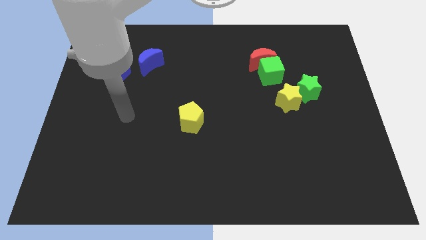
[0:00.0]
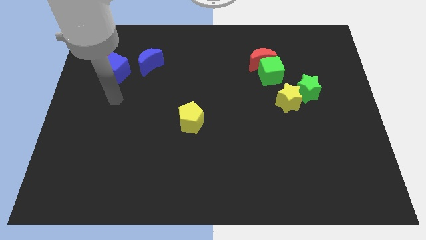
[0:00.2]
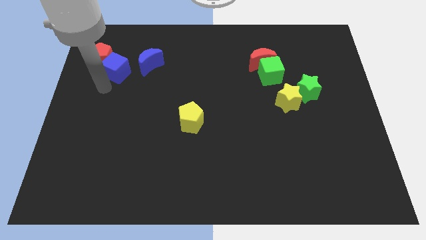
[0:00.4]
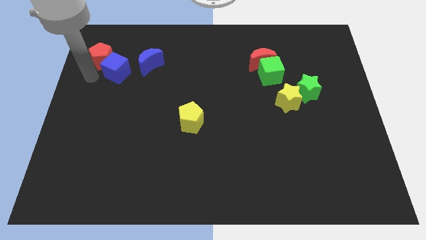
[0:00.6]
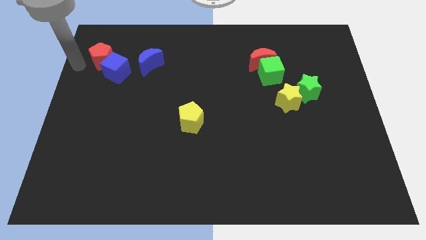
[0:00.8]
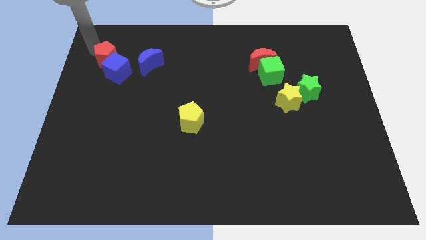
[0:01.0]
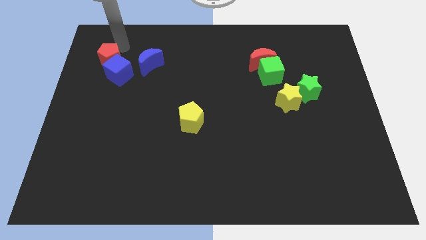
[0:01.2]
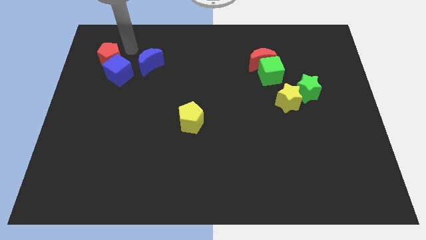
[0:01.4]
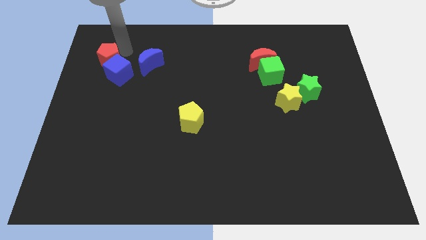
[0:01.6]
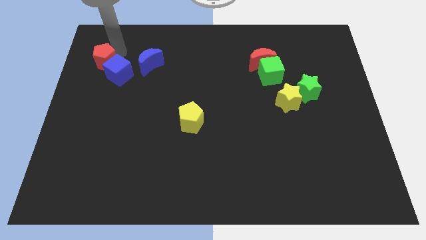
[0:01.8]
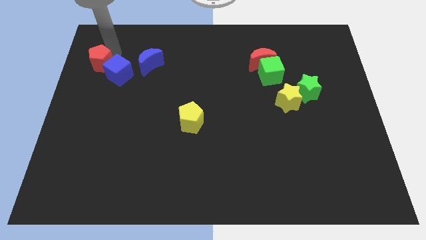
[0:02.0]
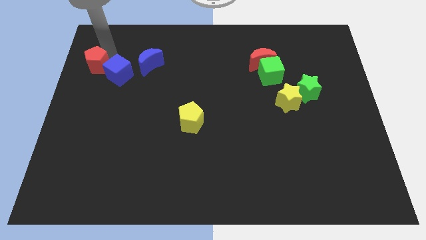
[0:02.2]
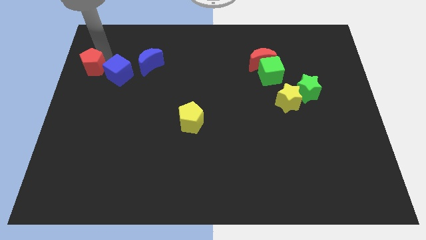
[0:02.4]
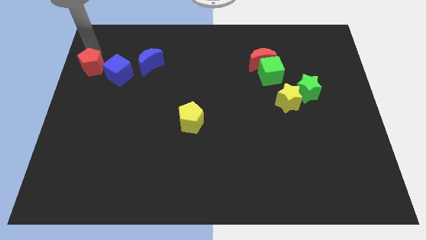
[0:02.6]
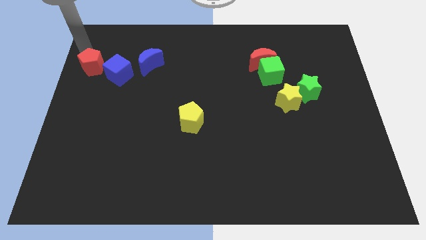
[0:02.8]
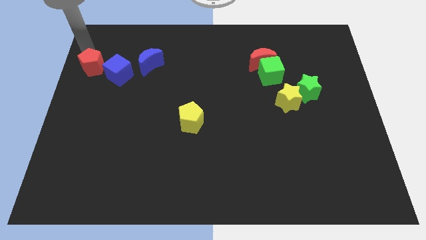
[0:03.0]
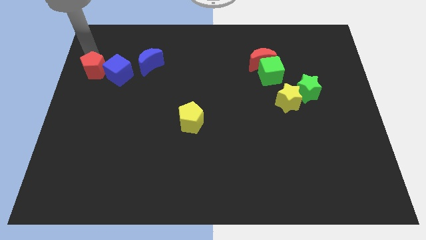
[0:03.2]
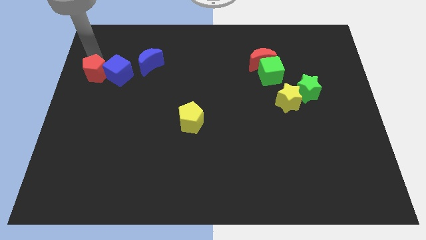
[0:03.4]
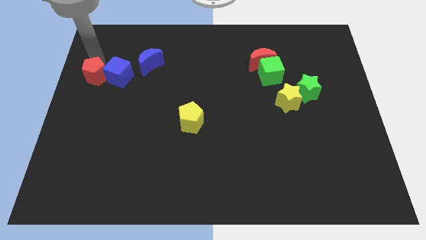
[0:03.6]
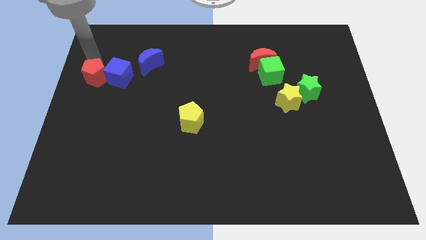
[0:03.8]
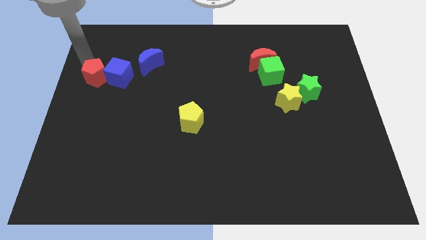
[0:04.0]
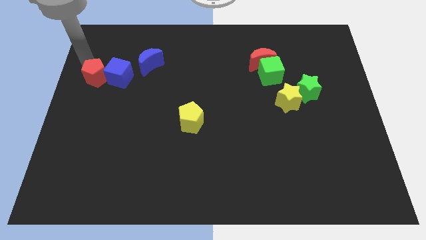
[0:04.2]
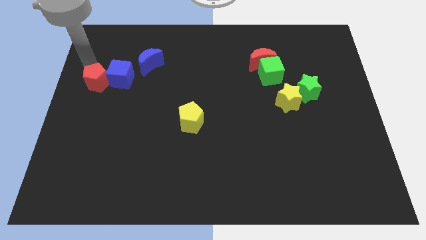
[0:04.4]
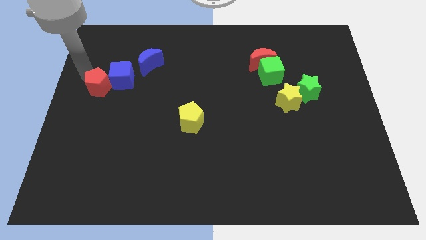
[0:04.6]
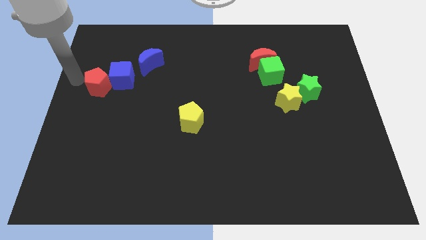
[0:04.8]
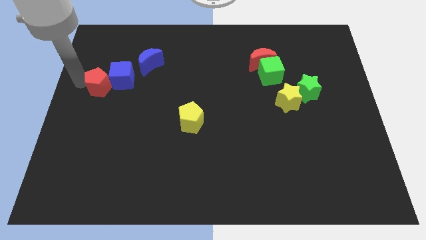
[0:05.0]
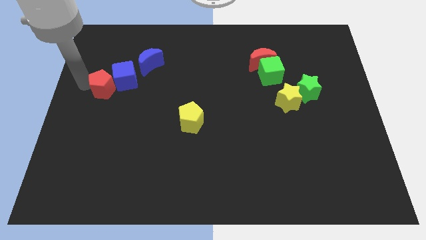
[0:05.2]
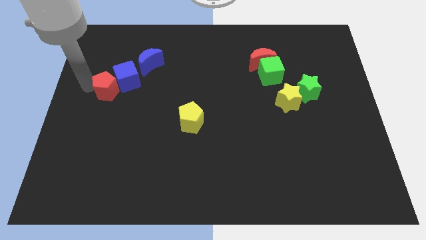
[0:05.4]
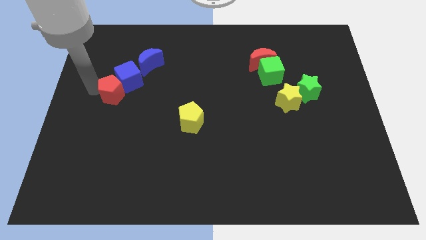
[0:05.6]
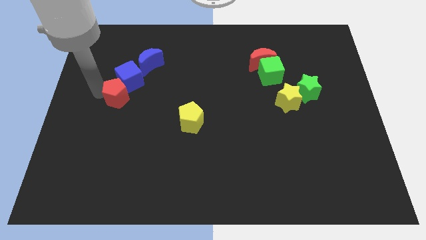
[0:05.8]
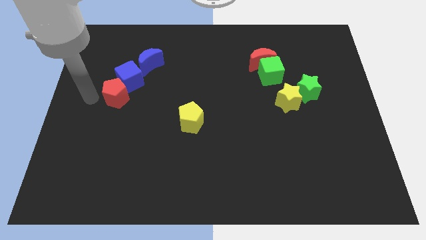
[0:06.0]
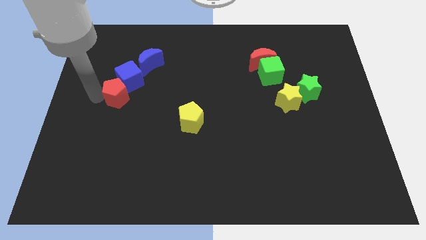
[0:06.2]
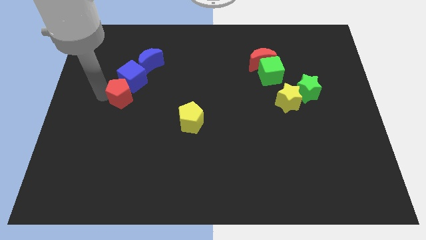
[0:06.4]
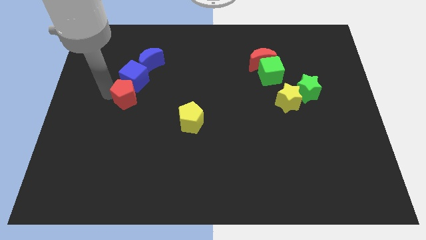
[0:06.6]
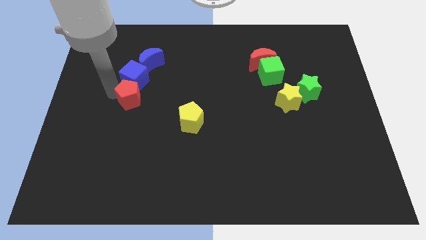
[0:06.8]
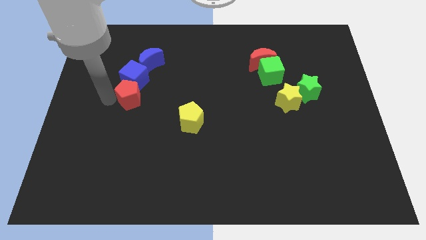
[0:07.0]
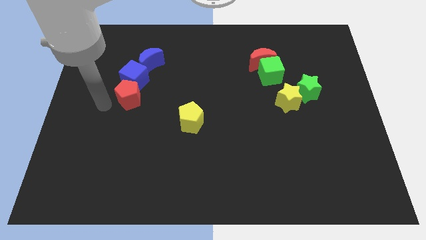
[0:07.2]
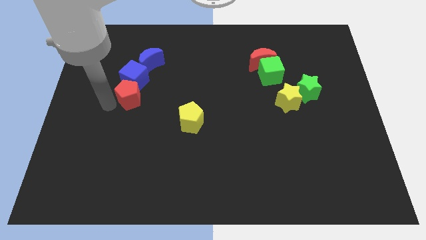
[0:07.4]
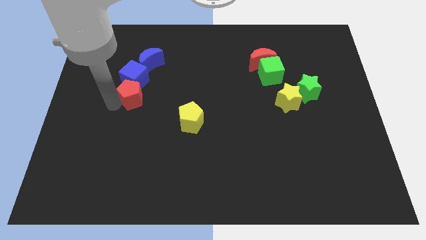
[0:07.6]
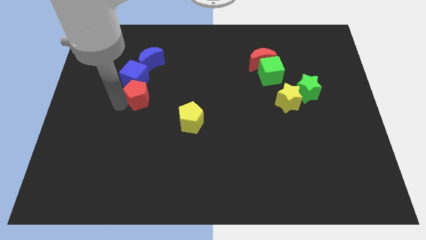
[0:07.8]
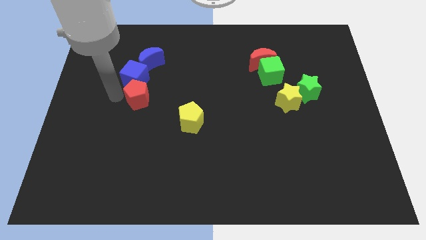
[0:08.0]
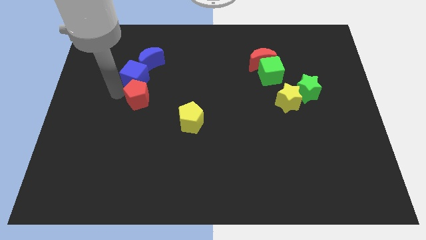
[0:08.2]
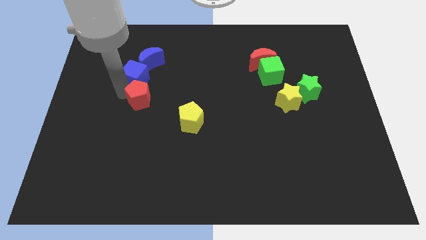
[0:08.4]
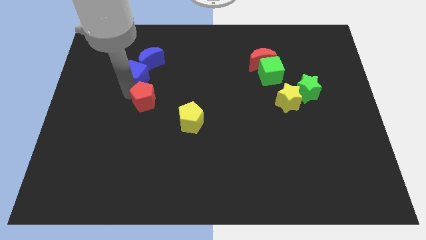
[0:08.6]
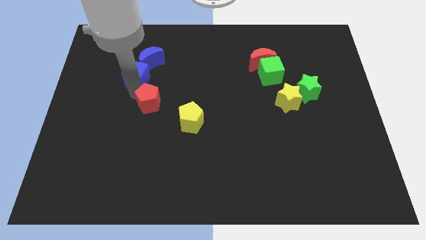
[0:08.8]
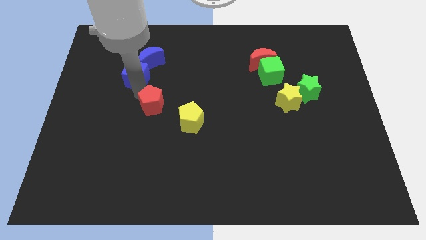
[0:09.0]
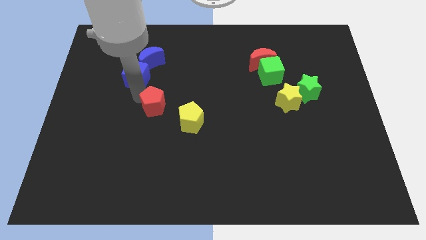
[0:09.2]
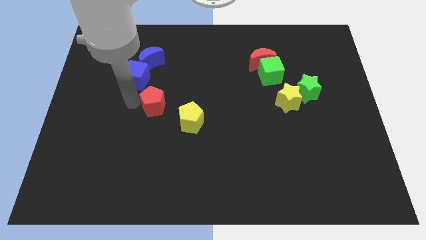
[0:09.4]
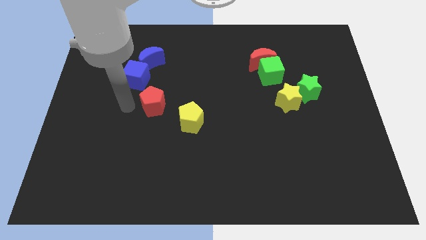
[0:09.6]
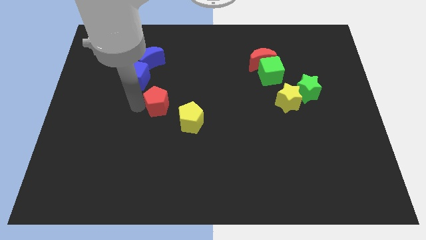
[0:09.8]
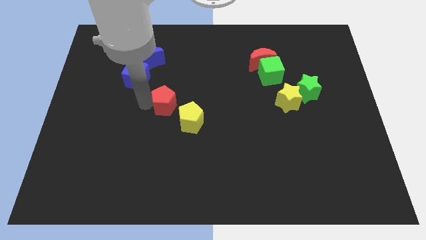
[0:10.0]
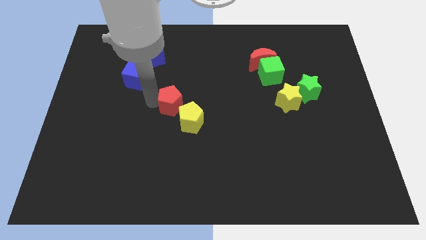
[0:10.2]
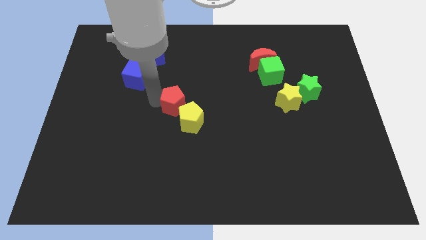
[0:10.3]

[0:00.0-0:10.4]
put the red pentagon to the yellow pentagon

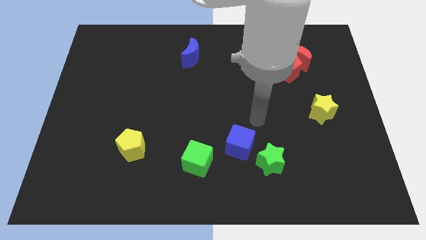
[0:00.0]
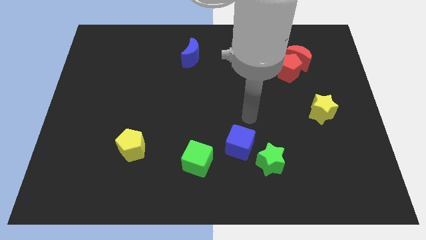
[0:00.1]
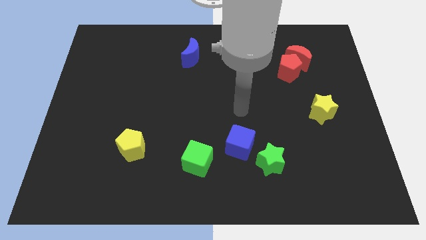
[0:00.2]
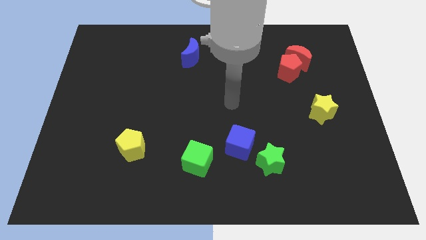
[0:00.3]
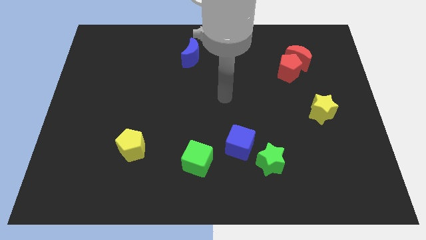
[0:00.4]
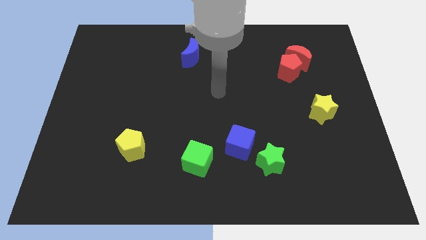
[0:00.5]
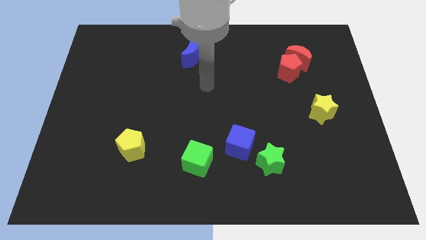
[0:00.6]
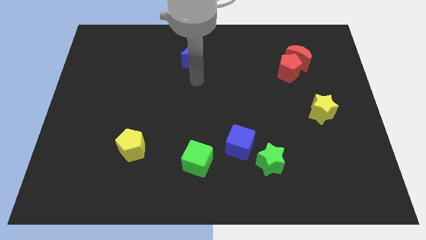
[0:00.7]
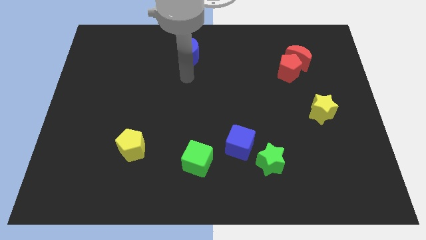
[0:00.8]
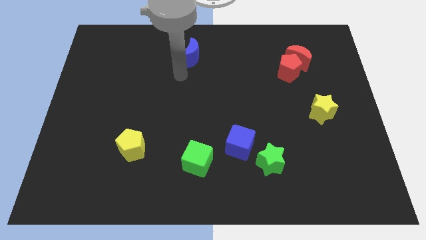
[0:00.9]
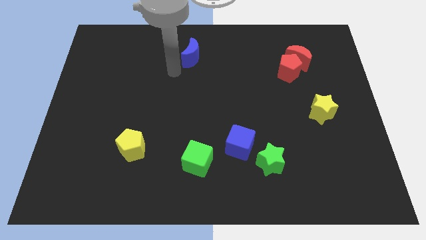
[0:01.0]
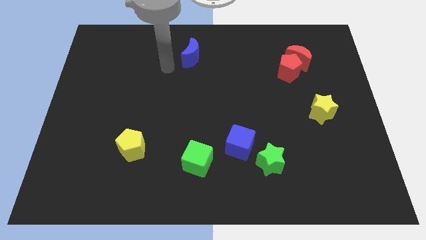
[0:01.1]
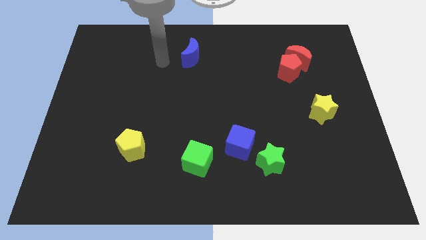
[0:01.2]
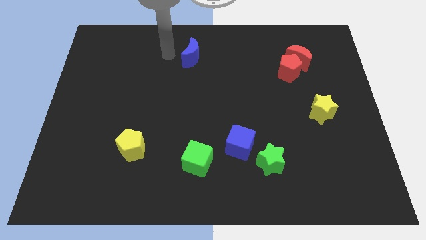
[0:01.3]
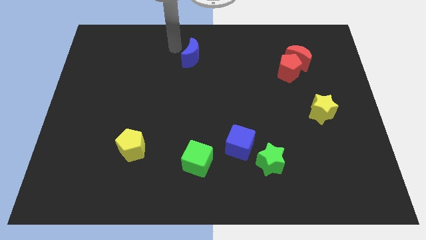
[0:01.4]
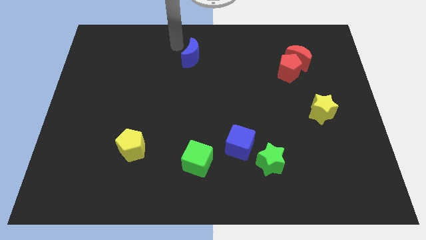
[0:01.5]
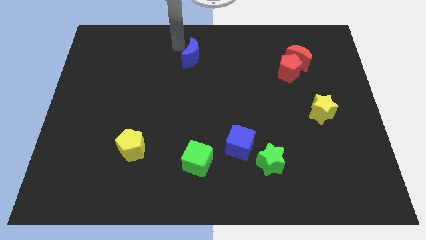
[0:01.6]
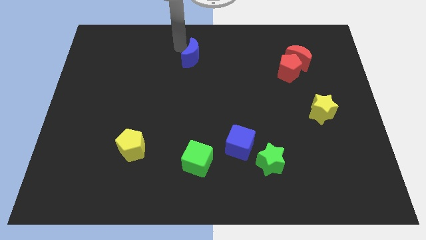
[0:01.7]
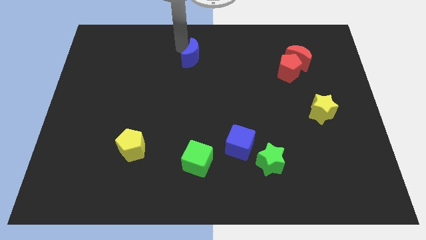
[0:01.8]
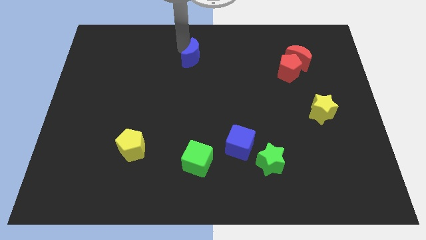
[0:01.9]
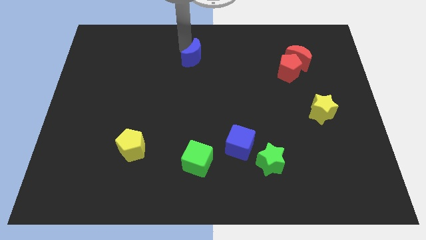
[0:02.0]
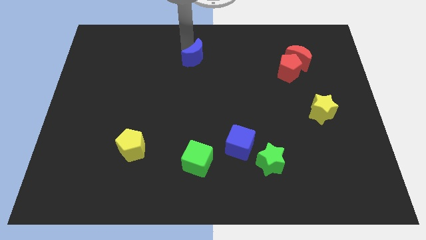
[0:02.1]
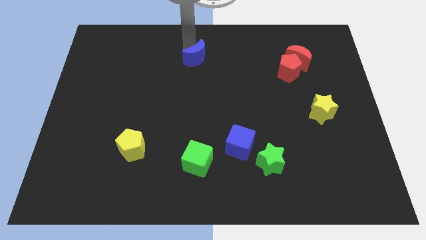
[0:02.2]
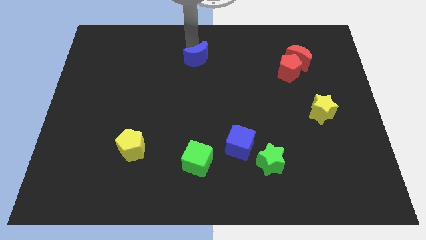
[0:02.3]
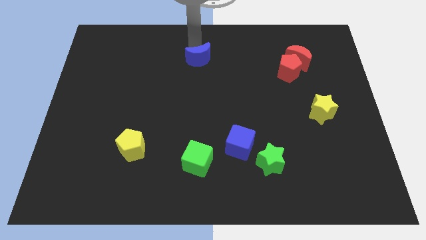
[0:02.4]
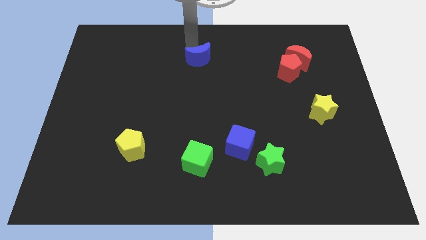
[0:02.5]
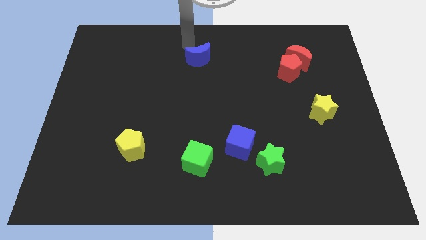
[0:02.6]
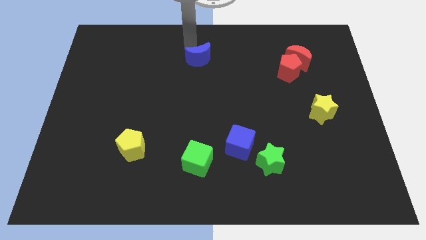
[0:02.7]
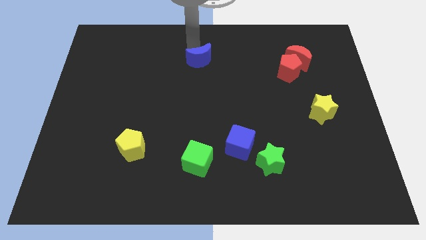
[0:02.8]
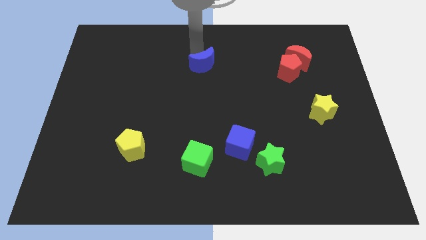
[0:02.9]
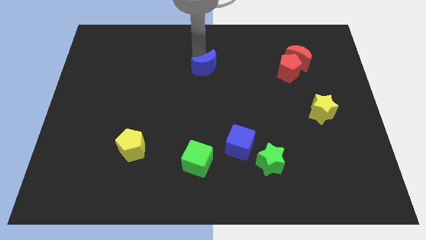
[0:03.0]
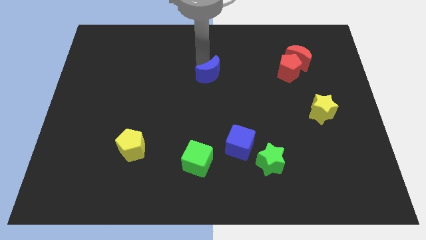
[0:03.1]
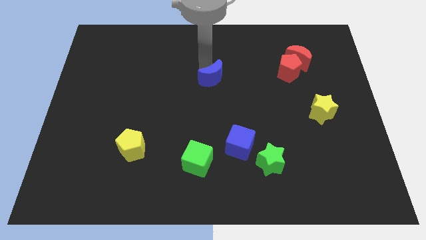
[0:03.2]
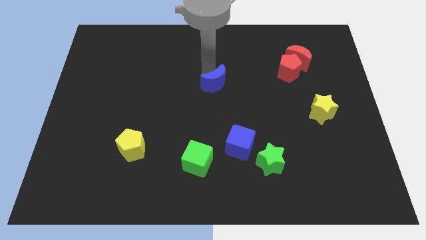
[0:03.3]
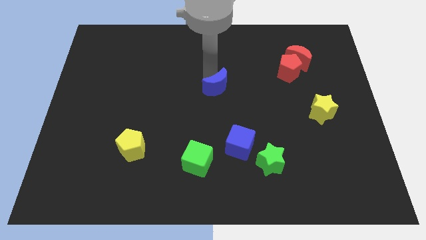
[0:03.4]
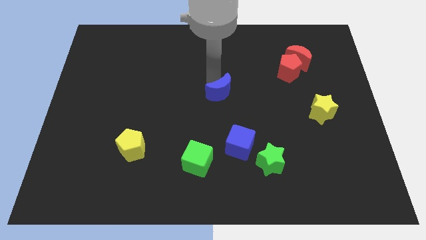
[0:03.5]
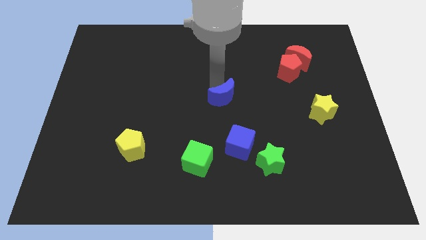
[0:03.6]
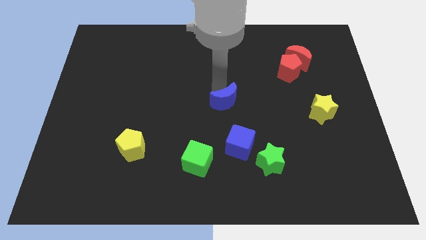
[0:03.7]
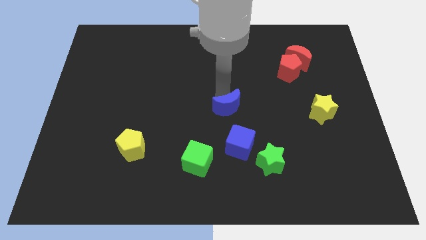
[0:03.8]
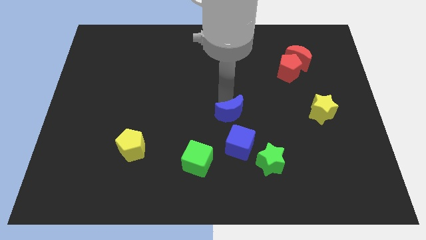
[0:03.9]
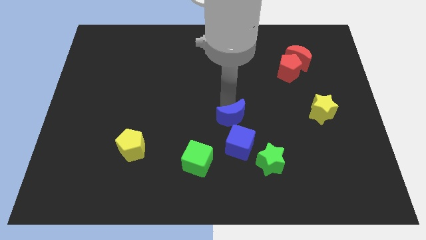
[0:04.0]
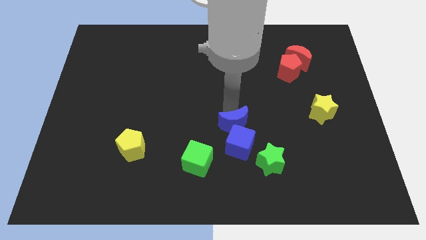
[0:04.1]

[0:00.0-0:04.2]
move the blue moon next to the blue cube
